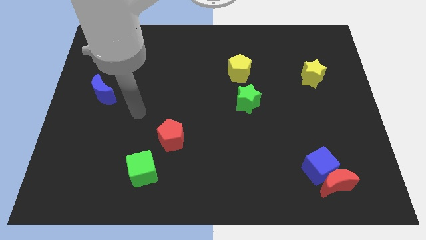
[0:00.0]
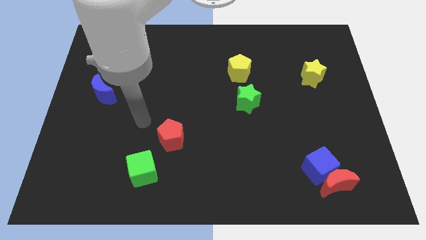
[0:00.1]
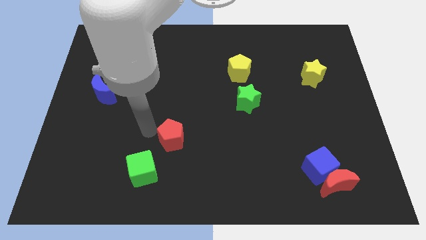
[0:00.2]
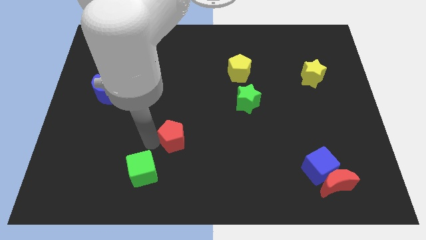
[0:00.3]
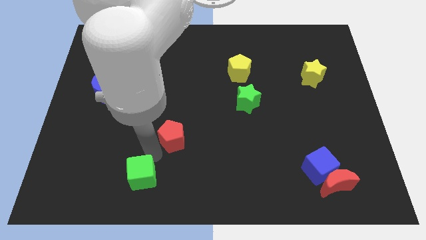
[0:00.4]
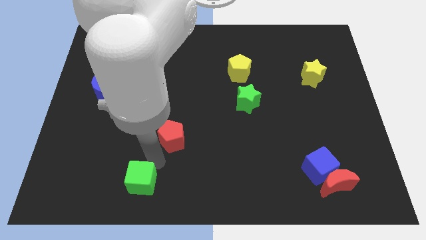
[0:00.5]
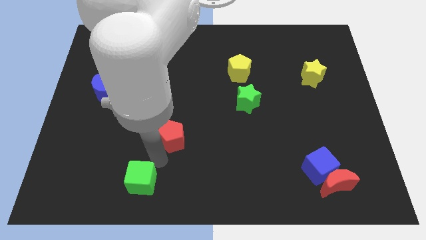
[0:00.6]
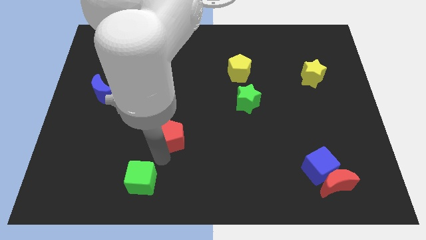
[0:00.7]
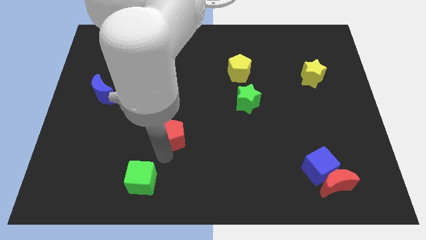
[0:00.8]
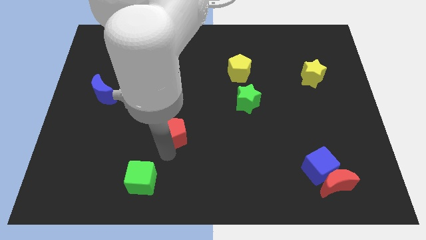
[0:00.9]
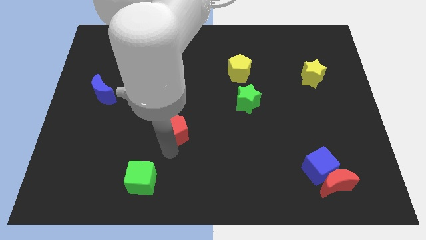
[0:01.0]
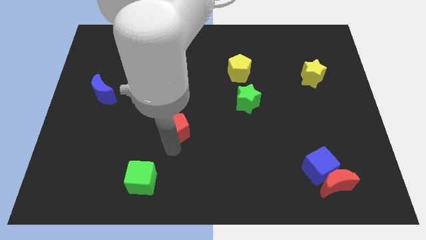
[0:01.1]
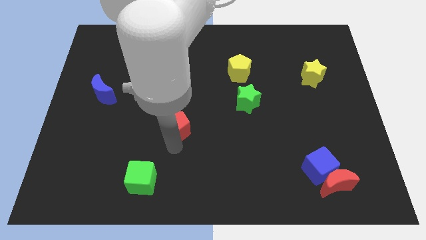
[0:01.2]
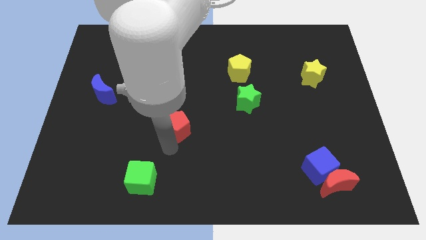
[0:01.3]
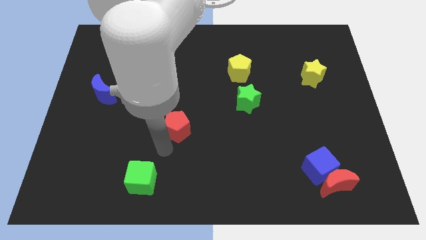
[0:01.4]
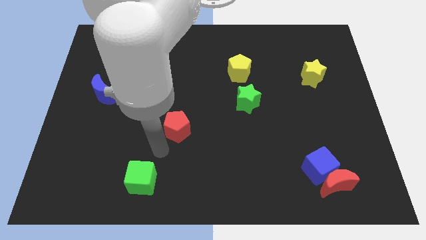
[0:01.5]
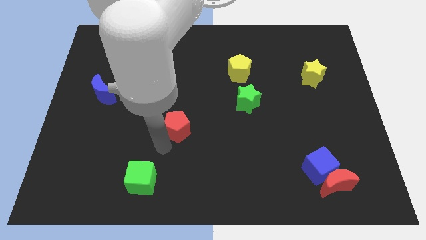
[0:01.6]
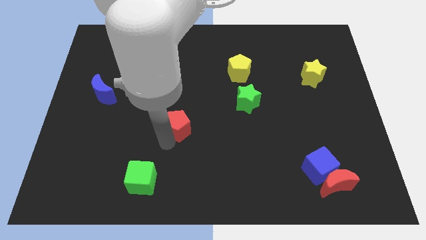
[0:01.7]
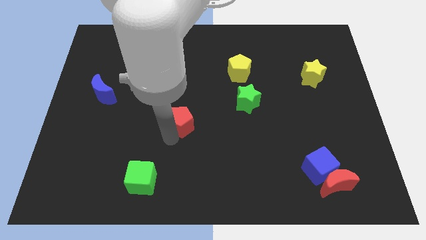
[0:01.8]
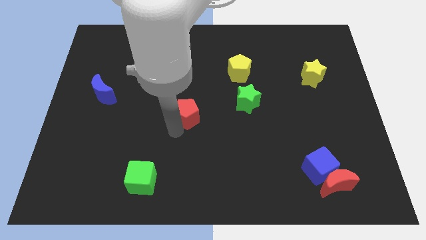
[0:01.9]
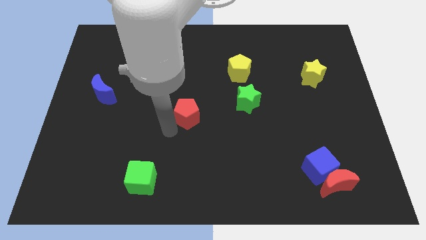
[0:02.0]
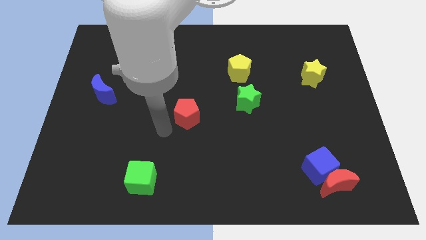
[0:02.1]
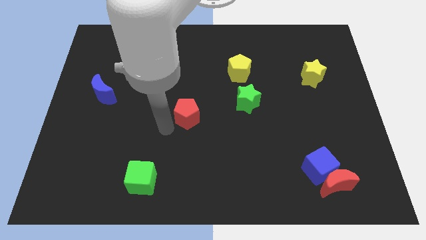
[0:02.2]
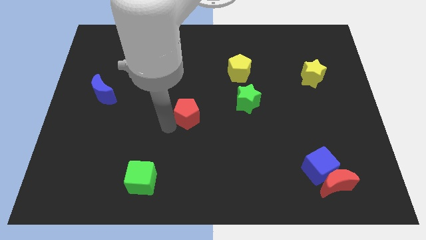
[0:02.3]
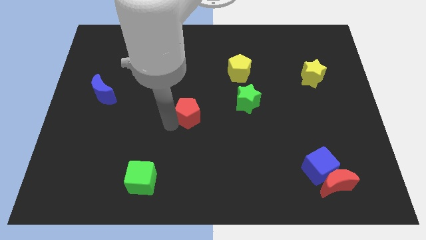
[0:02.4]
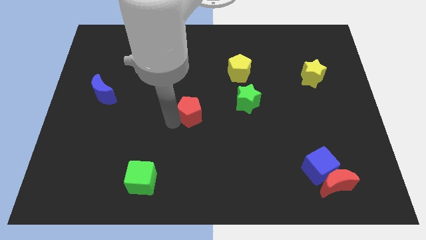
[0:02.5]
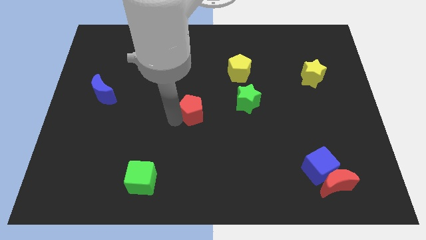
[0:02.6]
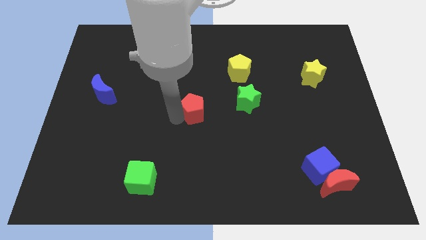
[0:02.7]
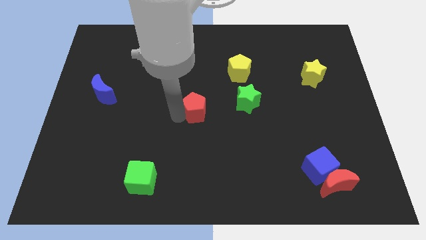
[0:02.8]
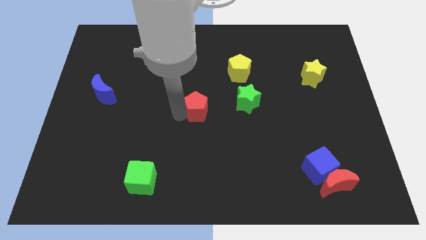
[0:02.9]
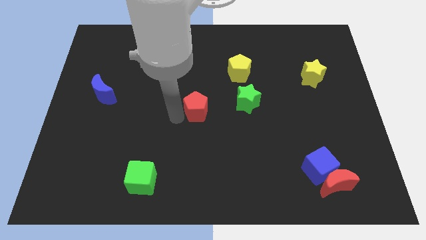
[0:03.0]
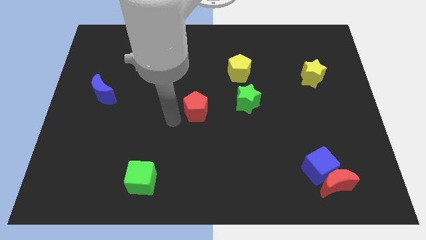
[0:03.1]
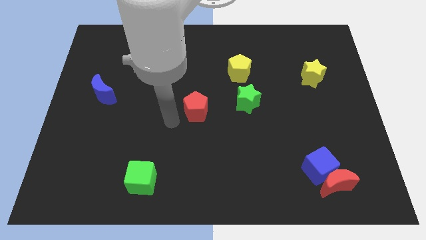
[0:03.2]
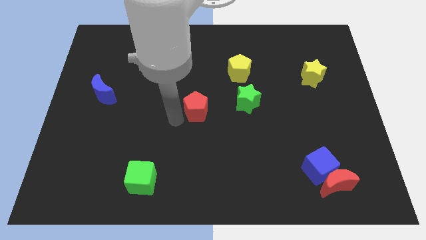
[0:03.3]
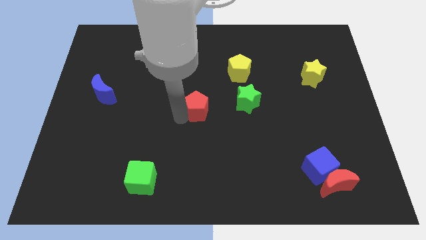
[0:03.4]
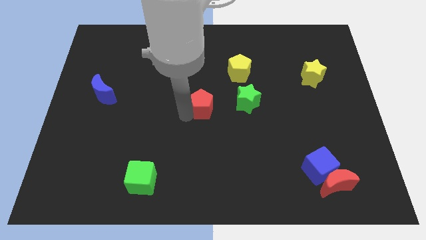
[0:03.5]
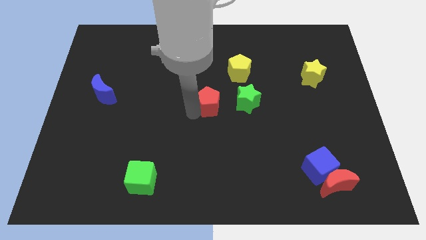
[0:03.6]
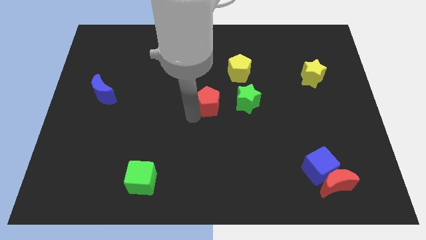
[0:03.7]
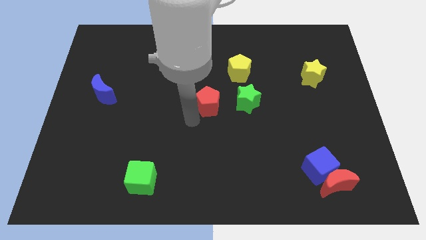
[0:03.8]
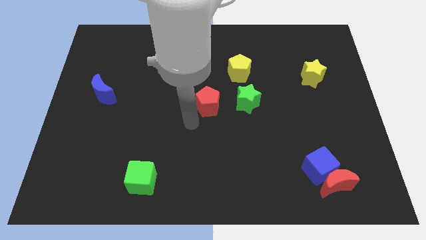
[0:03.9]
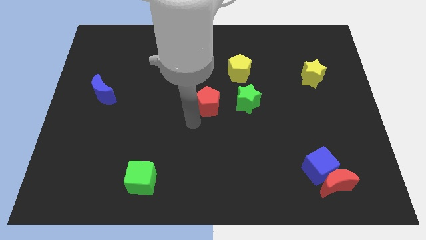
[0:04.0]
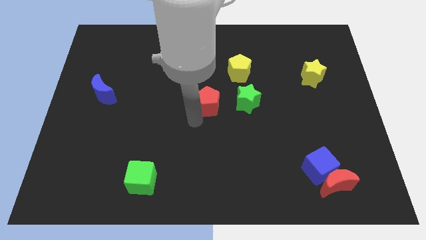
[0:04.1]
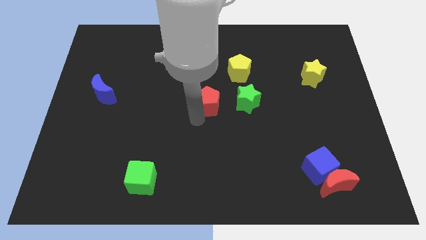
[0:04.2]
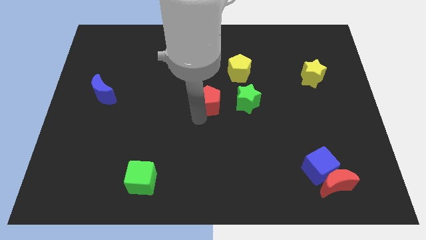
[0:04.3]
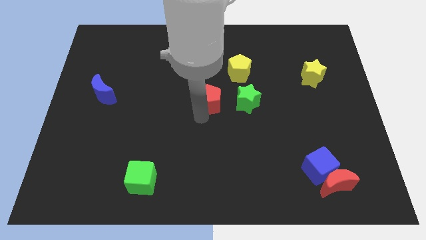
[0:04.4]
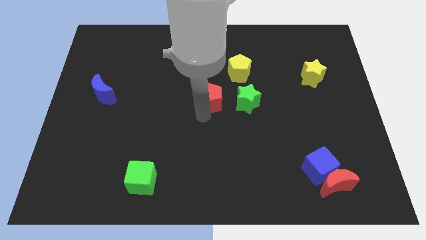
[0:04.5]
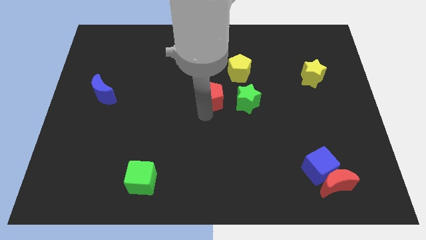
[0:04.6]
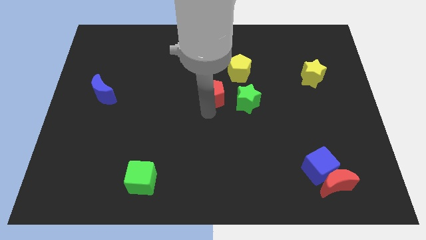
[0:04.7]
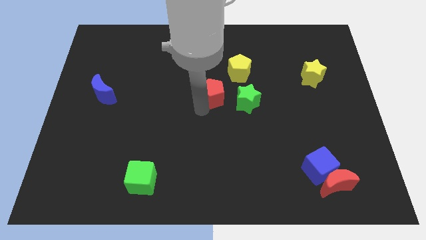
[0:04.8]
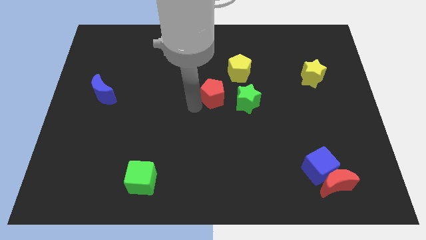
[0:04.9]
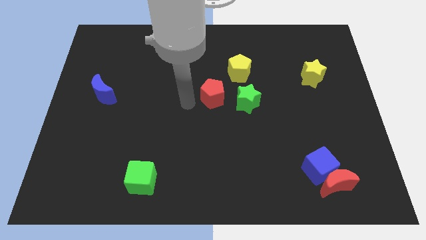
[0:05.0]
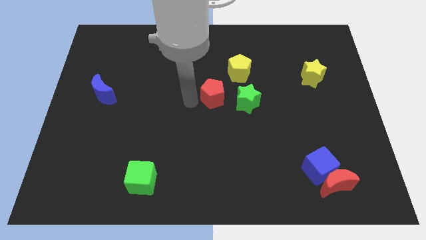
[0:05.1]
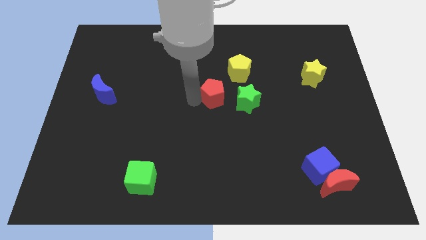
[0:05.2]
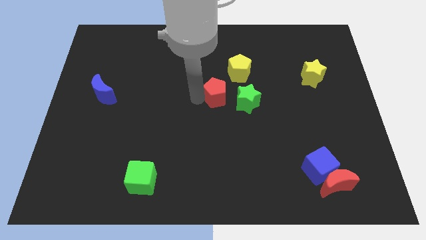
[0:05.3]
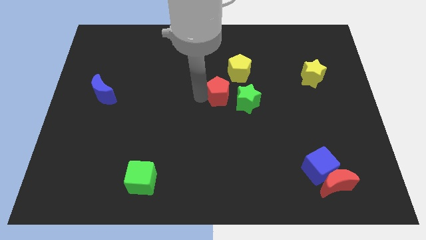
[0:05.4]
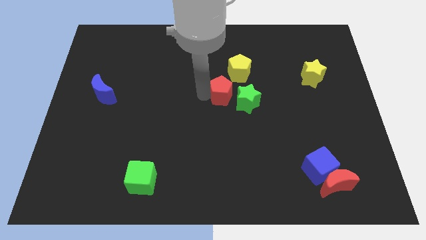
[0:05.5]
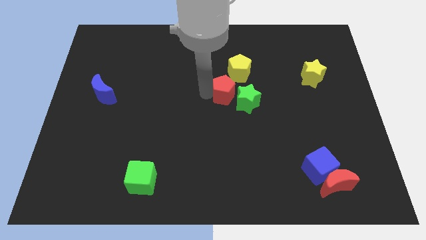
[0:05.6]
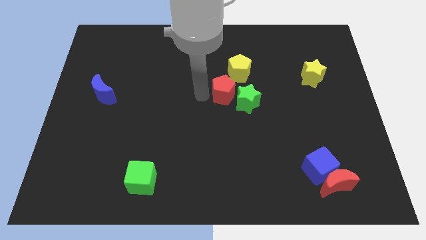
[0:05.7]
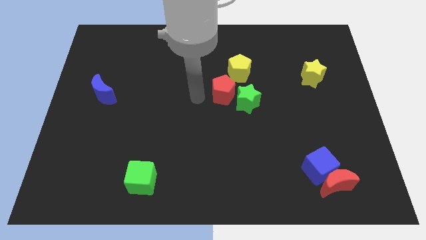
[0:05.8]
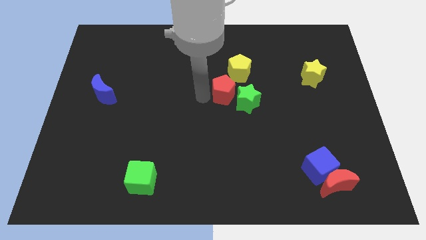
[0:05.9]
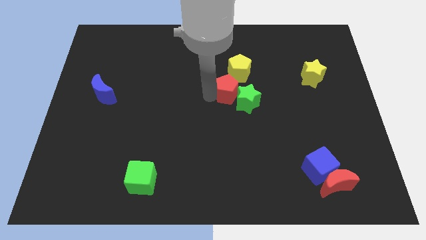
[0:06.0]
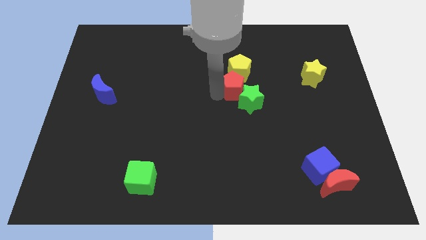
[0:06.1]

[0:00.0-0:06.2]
push the red pentagon upwards and then to the right

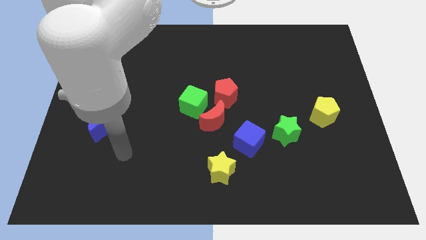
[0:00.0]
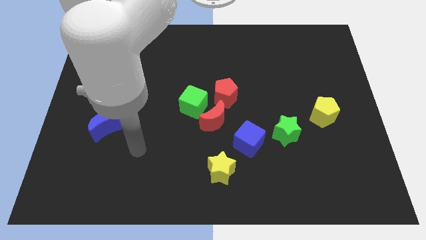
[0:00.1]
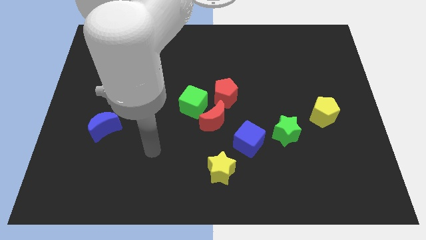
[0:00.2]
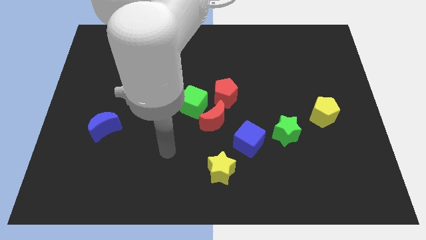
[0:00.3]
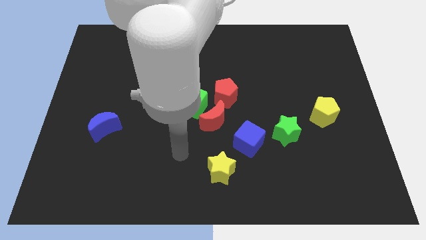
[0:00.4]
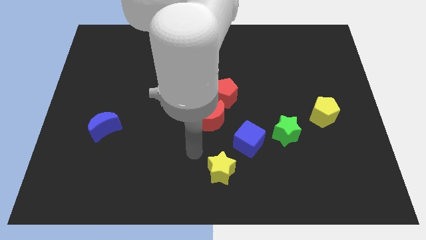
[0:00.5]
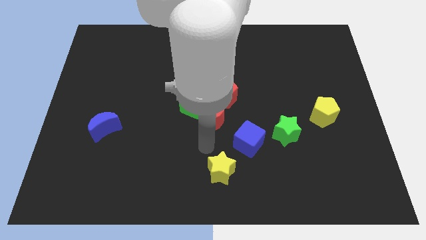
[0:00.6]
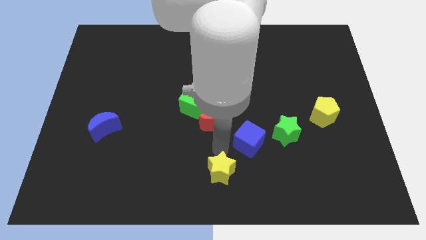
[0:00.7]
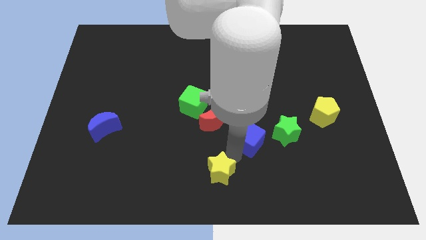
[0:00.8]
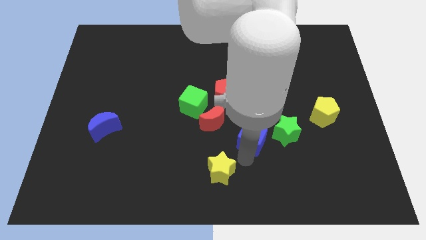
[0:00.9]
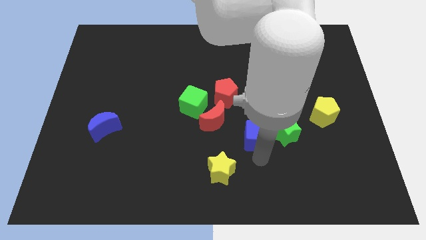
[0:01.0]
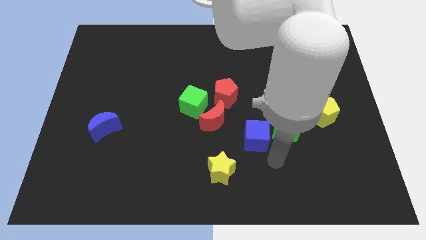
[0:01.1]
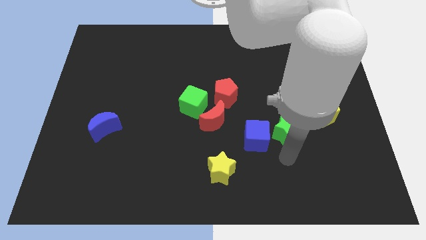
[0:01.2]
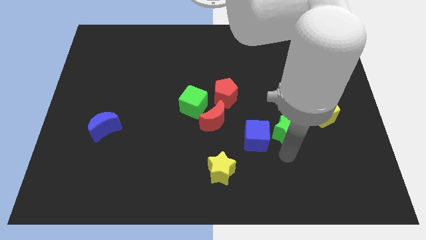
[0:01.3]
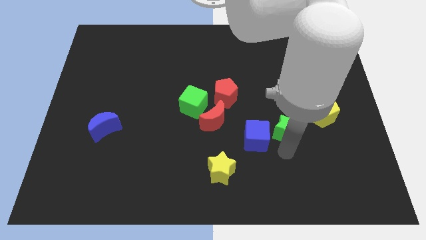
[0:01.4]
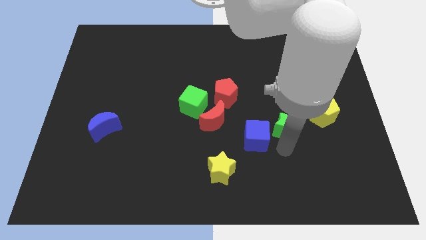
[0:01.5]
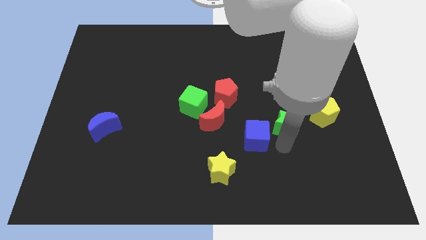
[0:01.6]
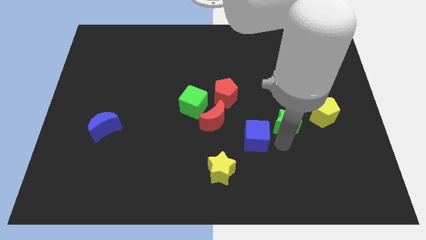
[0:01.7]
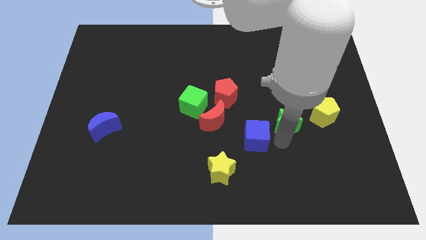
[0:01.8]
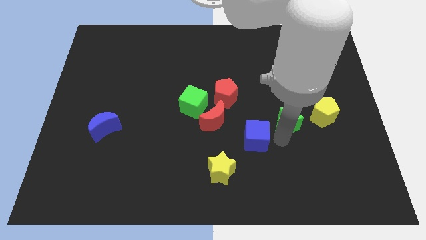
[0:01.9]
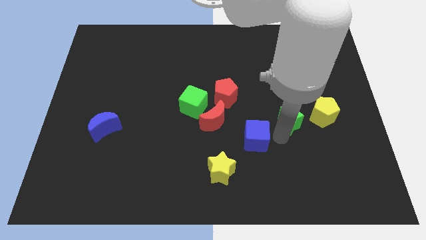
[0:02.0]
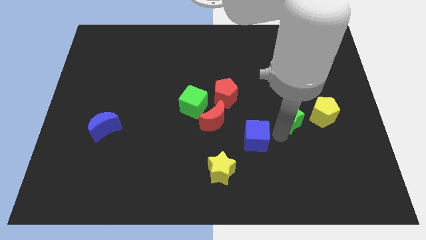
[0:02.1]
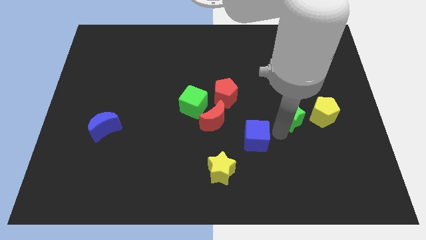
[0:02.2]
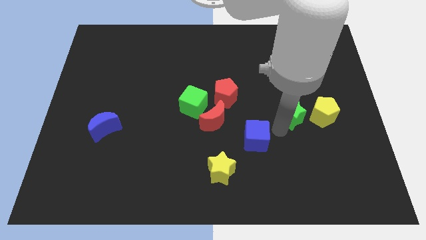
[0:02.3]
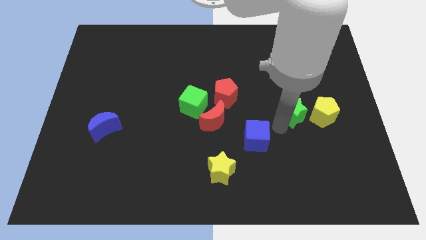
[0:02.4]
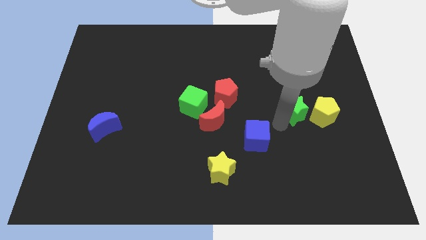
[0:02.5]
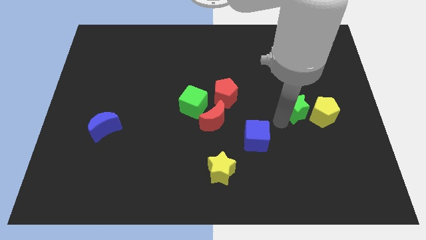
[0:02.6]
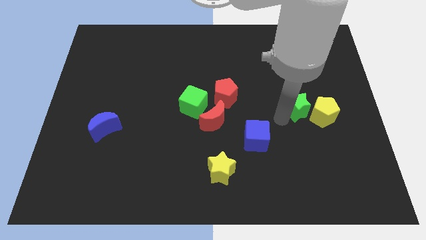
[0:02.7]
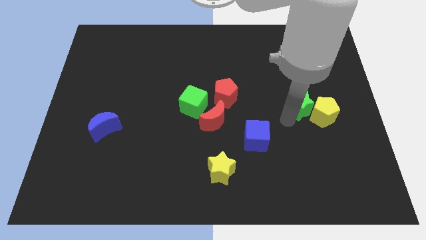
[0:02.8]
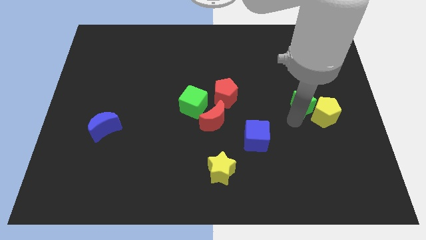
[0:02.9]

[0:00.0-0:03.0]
slide the green star upwards slightly
